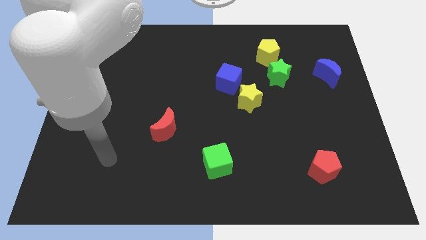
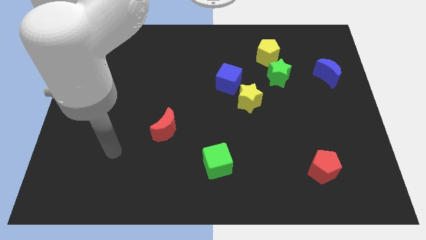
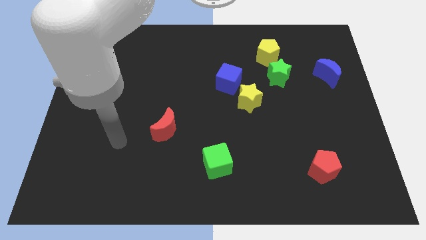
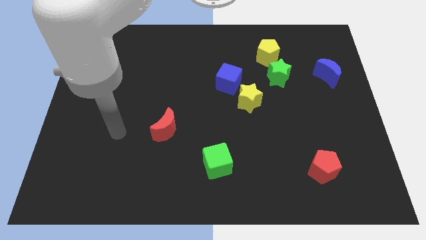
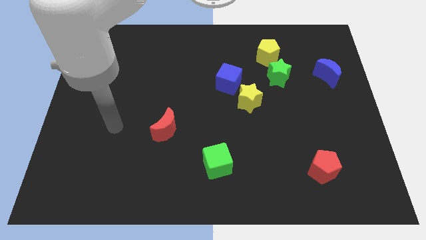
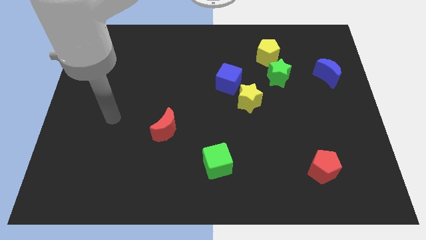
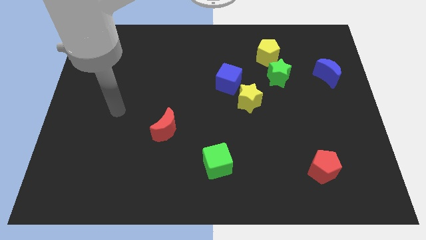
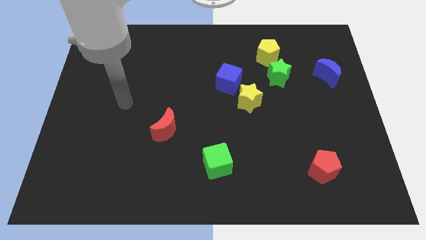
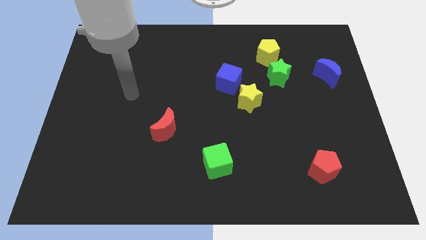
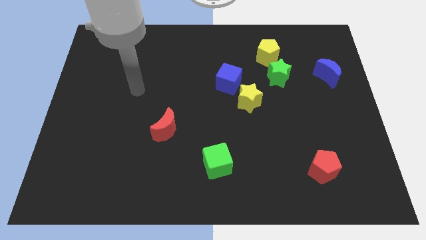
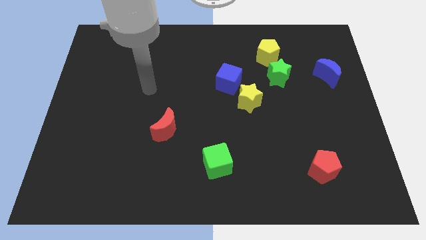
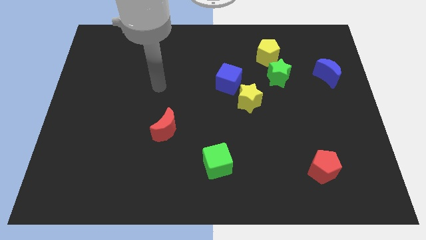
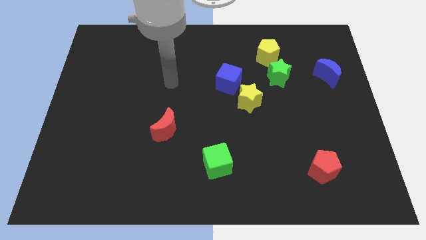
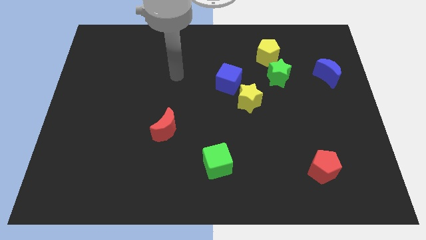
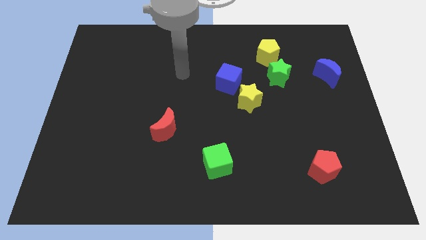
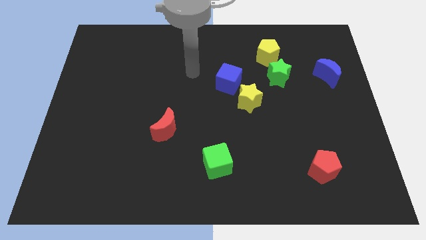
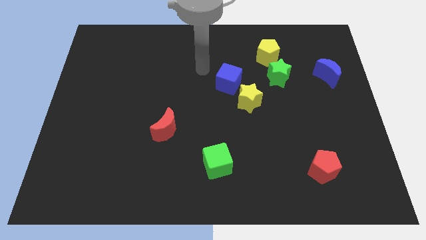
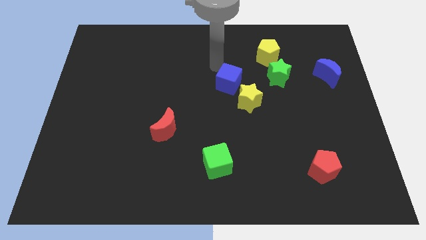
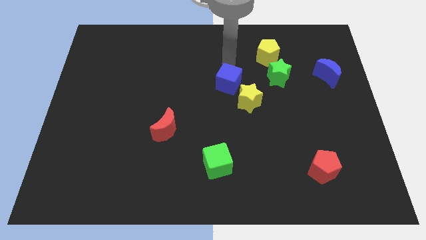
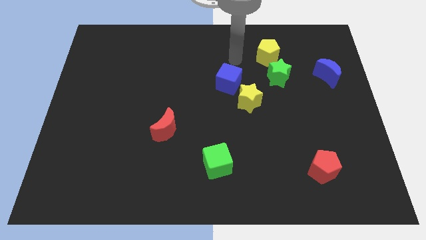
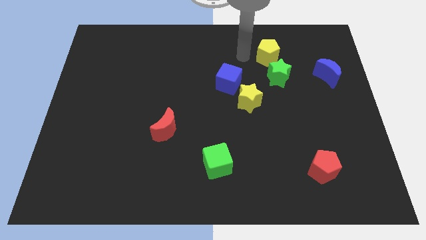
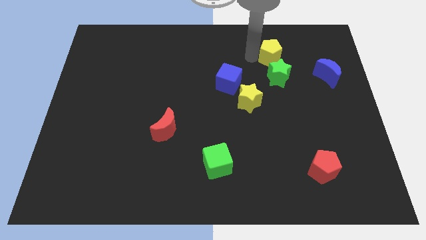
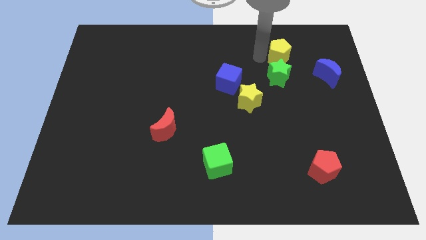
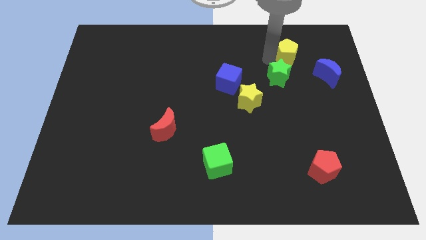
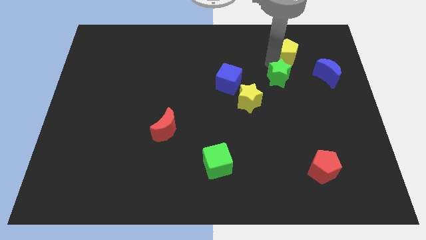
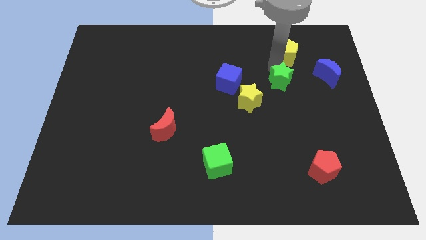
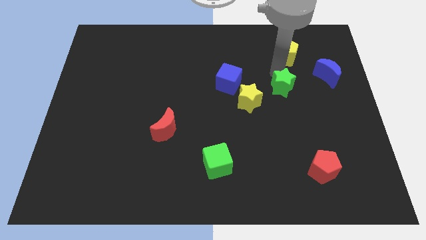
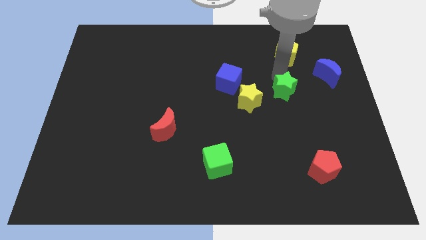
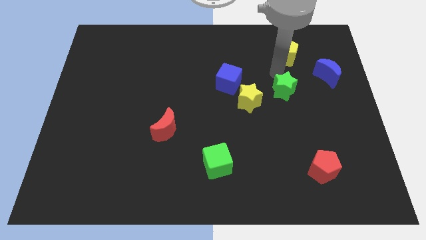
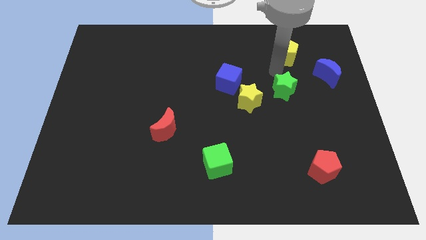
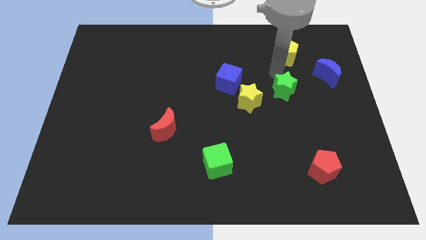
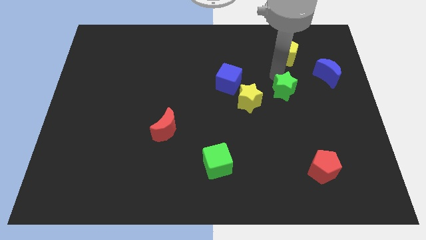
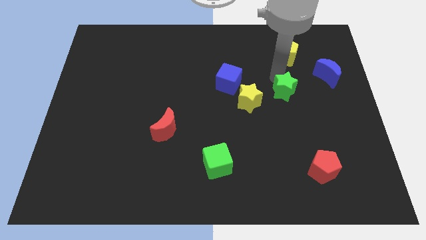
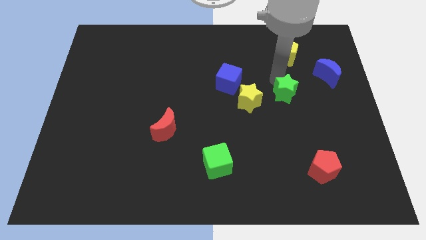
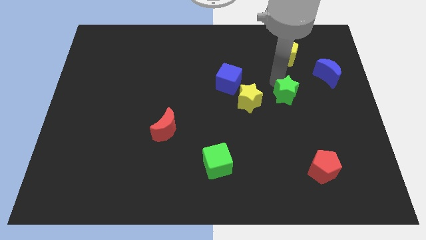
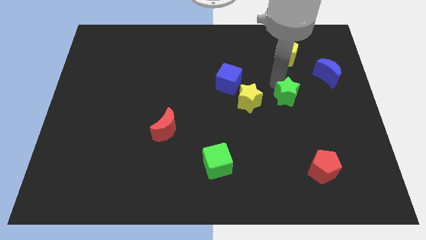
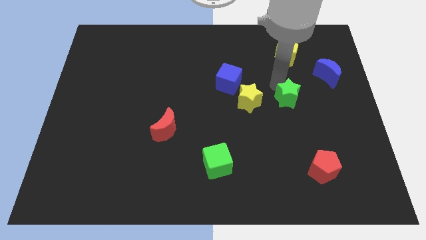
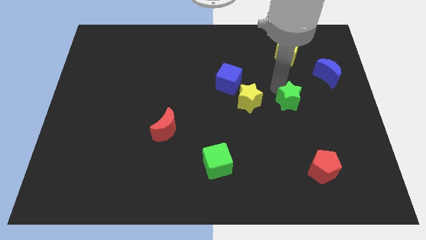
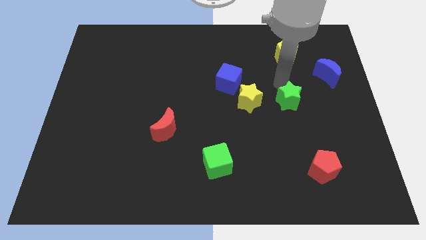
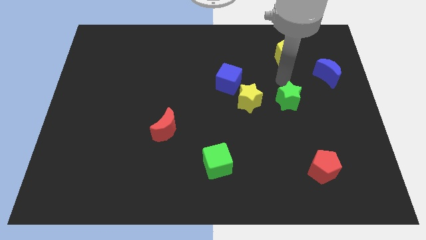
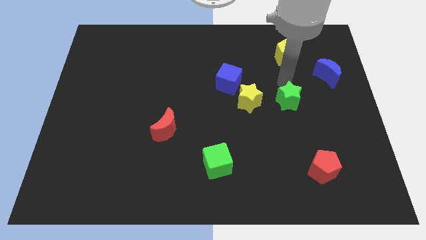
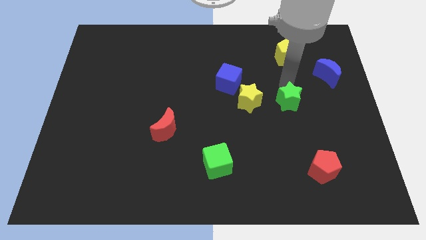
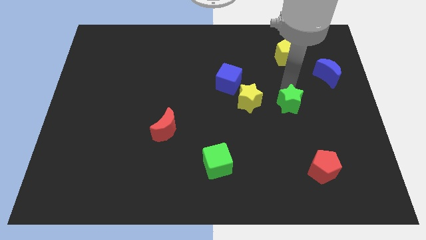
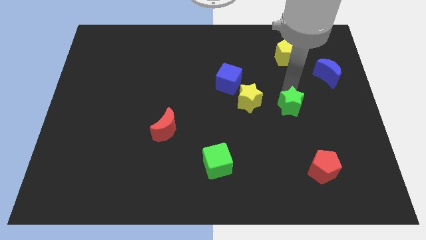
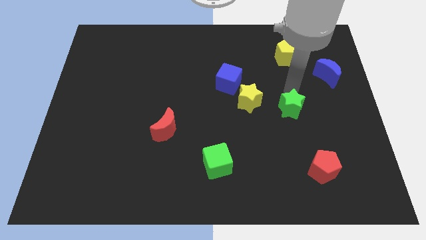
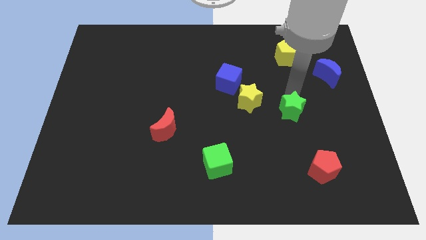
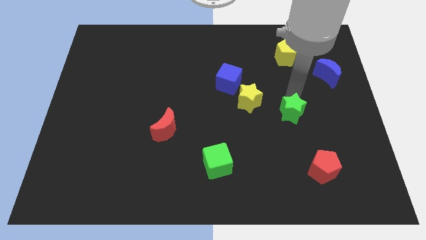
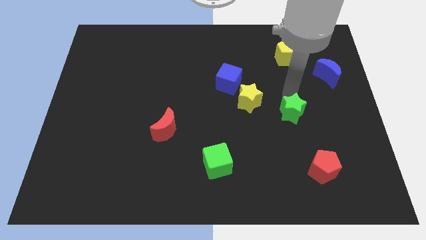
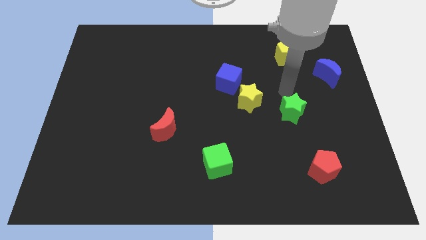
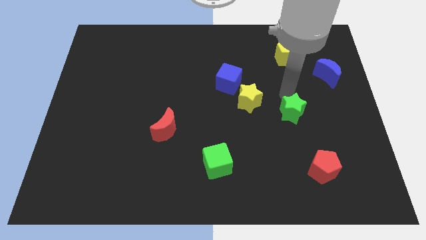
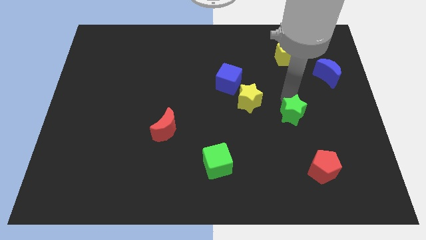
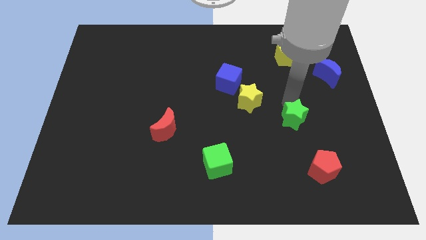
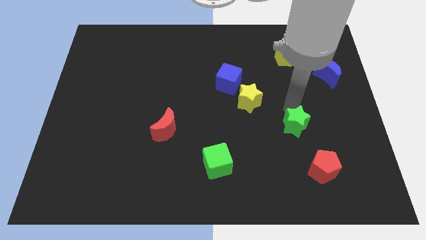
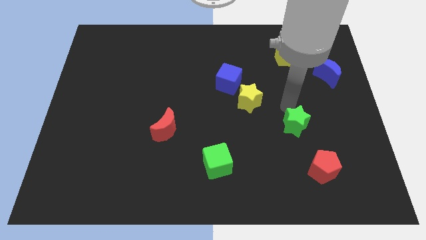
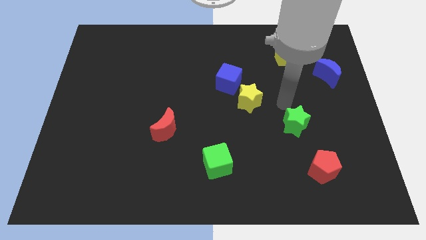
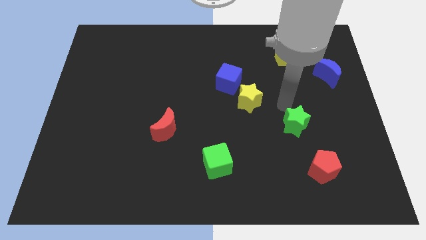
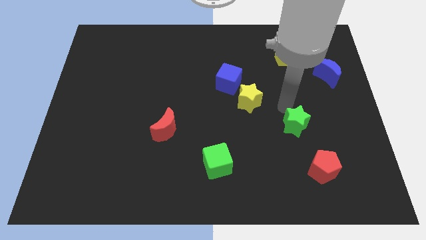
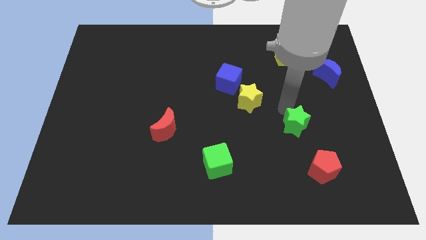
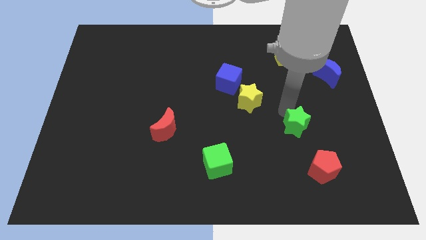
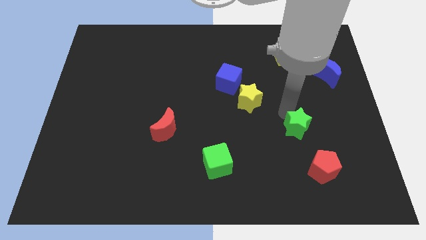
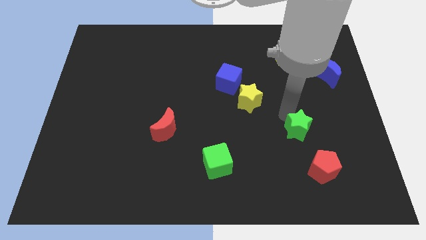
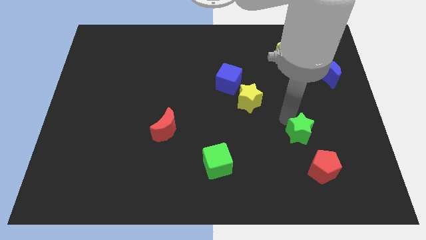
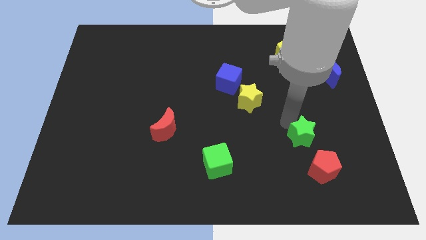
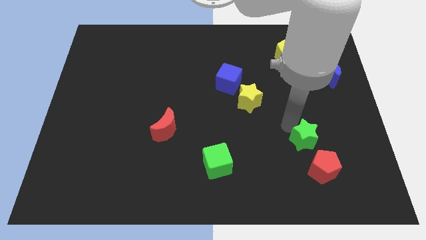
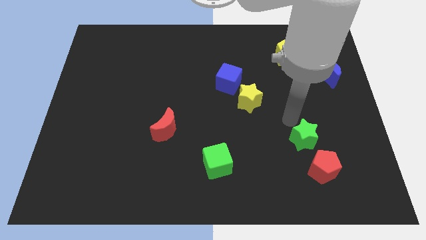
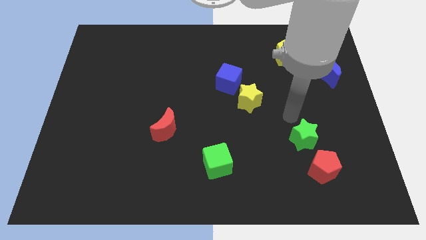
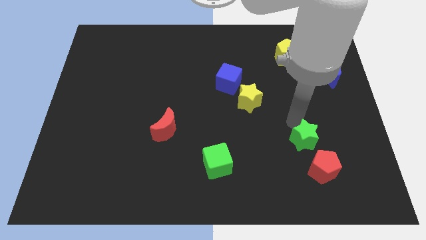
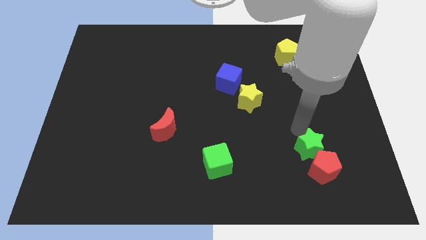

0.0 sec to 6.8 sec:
push the green star to the red pentagon
